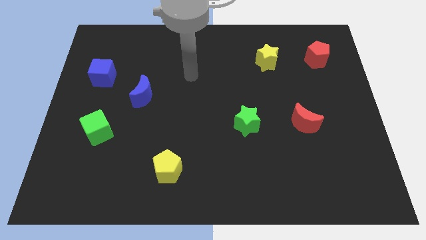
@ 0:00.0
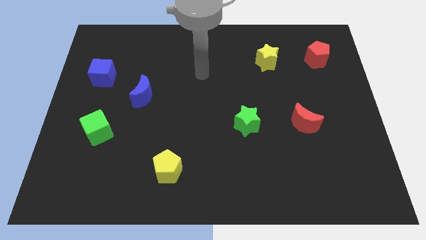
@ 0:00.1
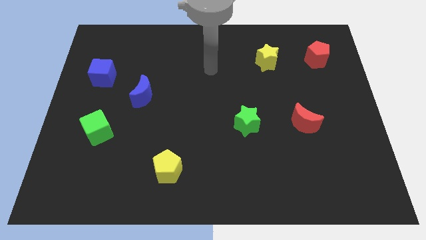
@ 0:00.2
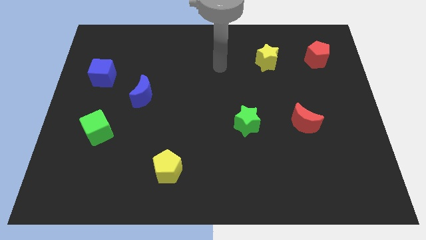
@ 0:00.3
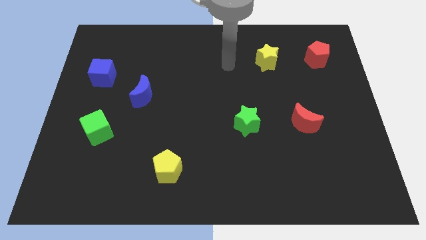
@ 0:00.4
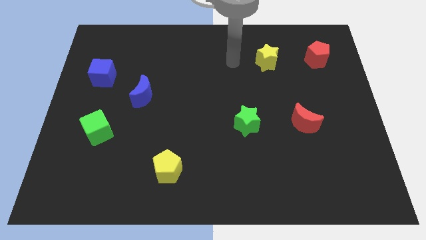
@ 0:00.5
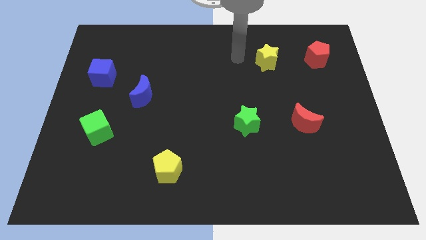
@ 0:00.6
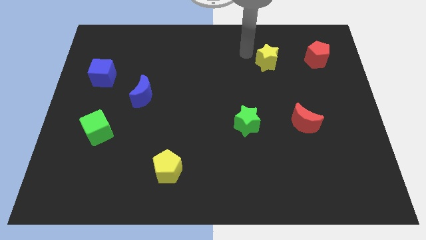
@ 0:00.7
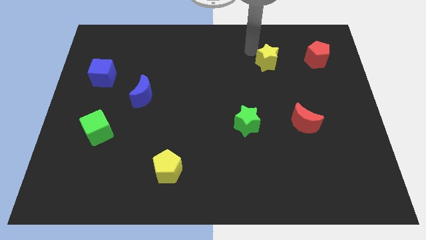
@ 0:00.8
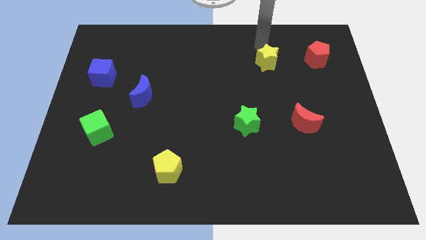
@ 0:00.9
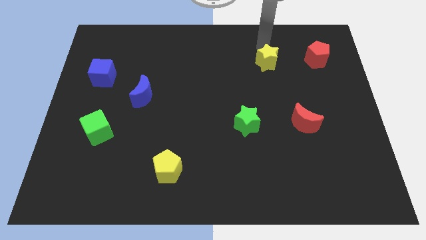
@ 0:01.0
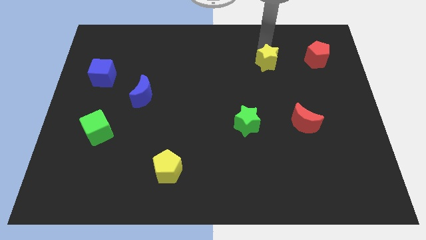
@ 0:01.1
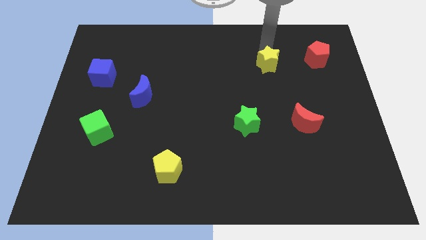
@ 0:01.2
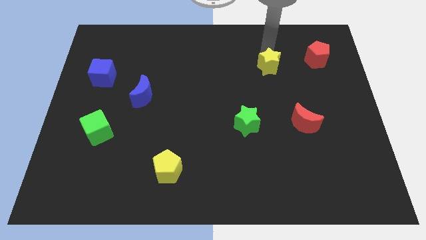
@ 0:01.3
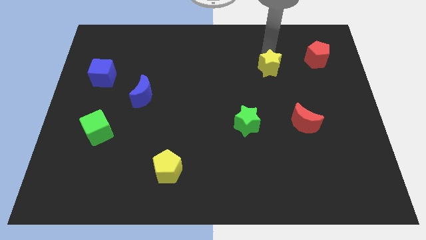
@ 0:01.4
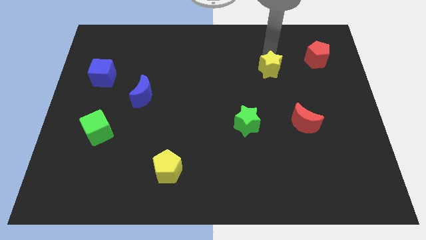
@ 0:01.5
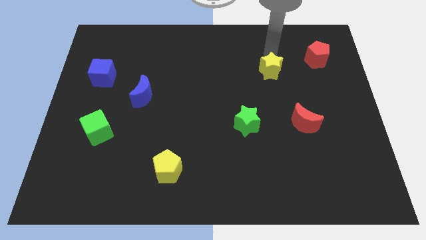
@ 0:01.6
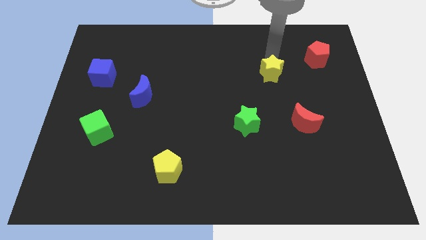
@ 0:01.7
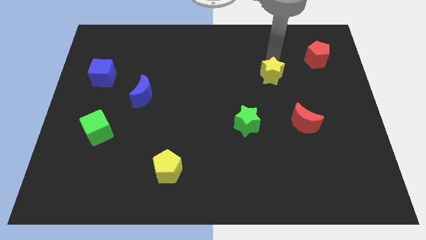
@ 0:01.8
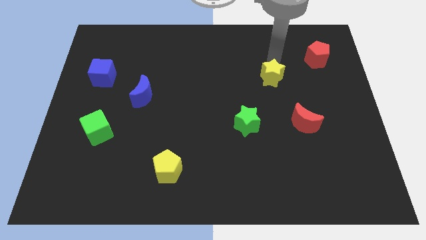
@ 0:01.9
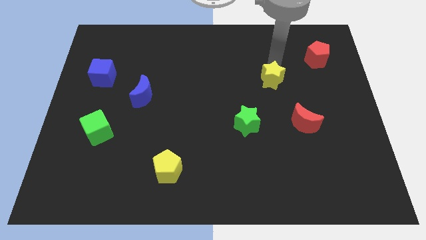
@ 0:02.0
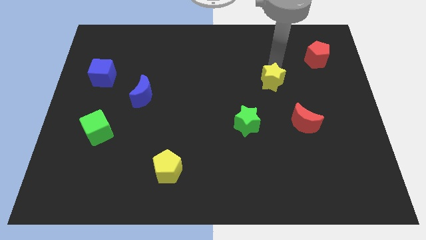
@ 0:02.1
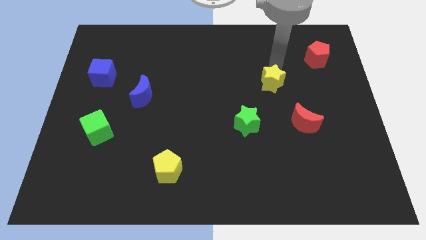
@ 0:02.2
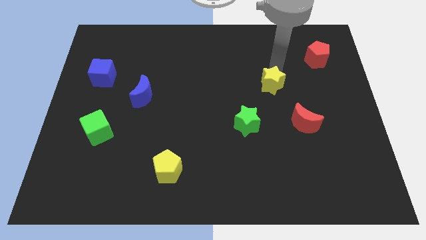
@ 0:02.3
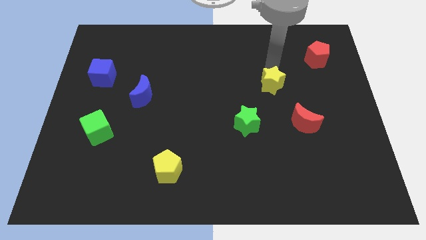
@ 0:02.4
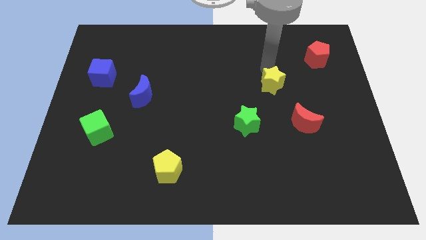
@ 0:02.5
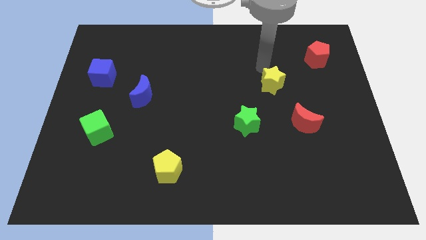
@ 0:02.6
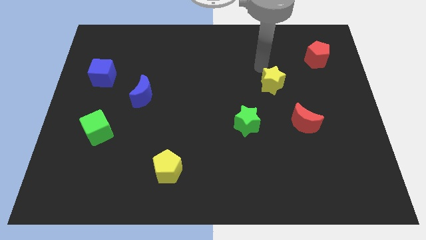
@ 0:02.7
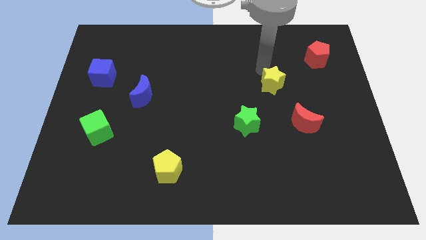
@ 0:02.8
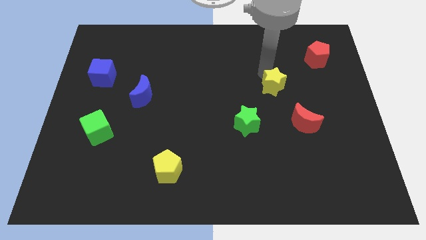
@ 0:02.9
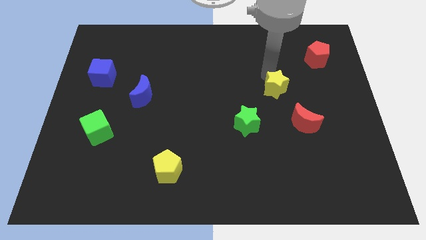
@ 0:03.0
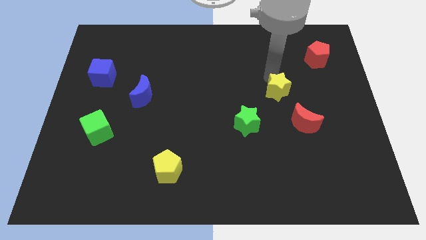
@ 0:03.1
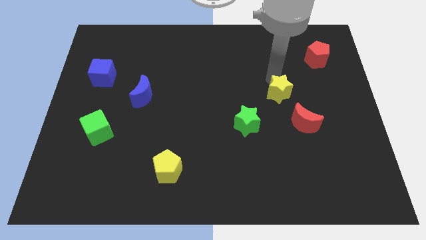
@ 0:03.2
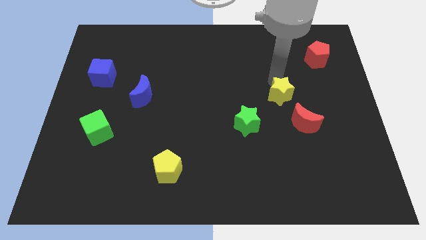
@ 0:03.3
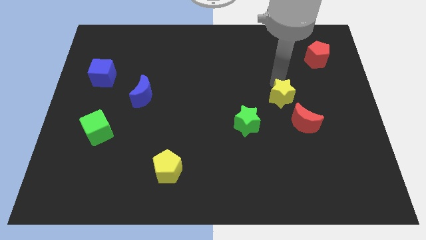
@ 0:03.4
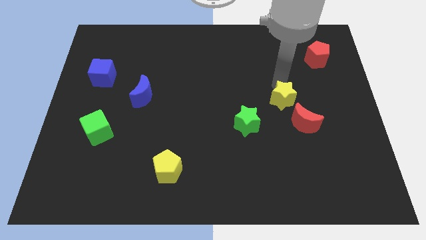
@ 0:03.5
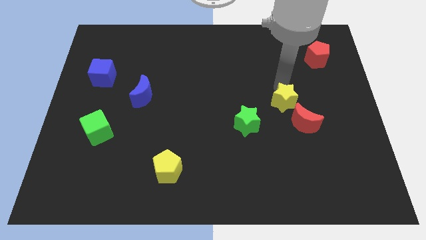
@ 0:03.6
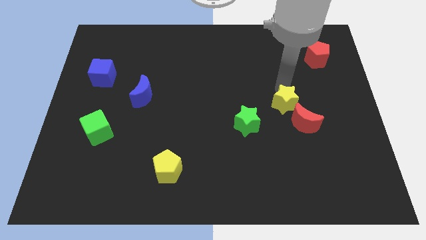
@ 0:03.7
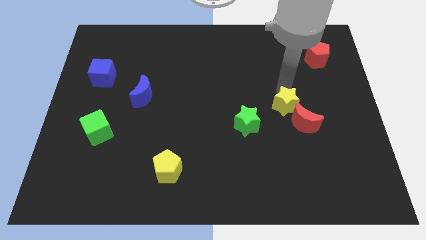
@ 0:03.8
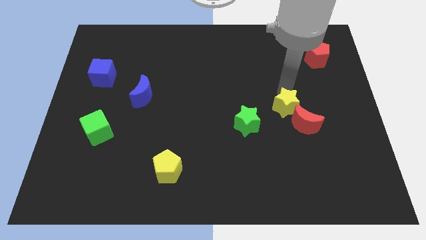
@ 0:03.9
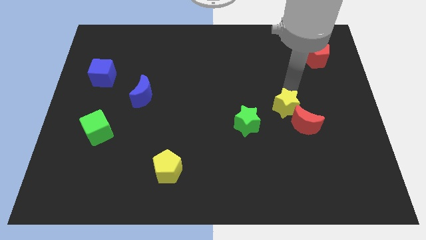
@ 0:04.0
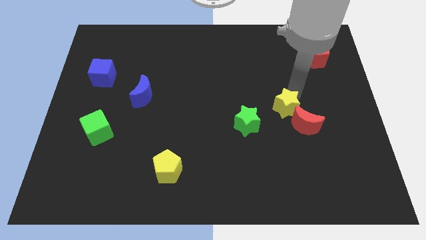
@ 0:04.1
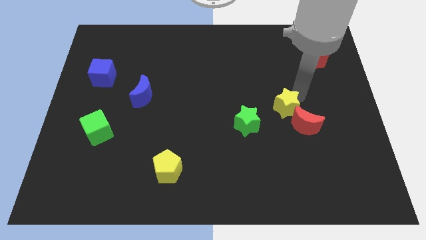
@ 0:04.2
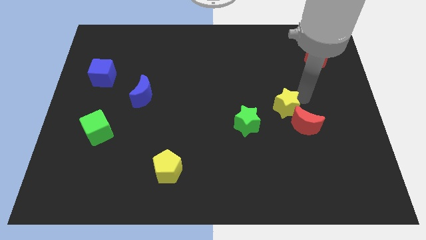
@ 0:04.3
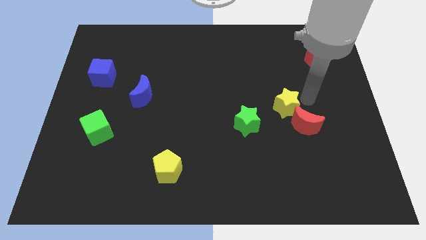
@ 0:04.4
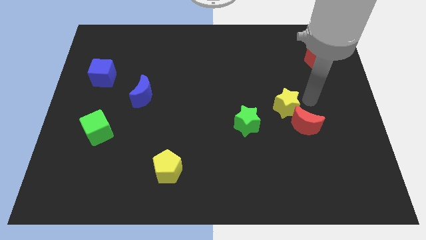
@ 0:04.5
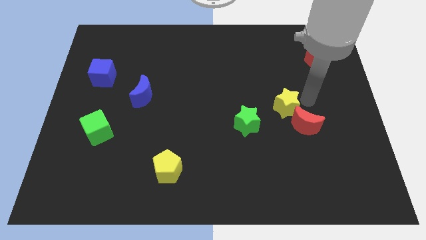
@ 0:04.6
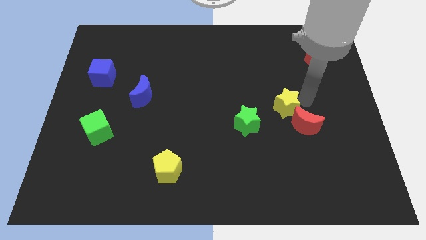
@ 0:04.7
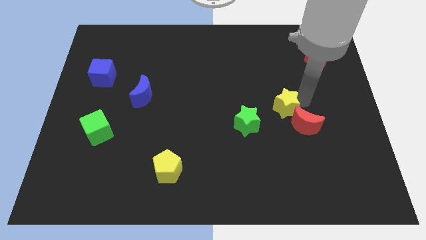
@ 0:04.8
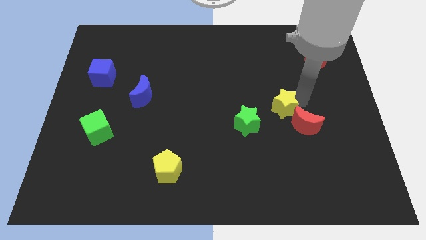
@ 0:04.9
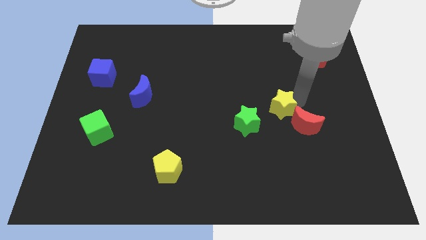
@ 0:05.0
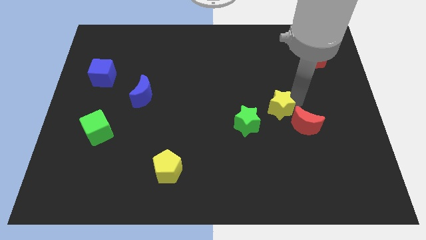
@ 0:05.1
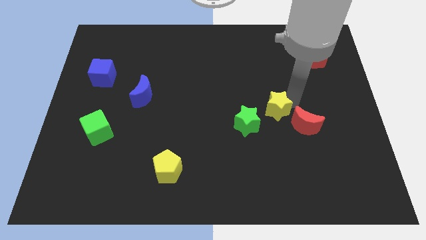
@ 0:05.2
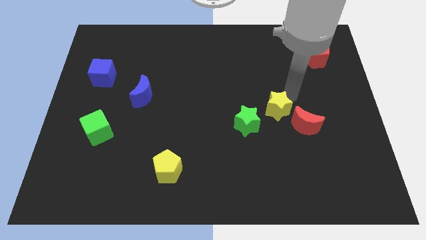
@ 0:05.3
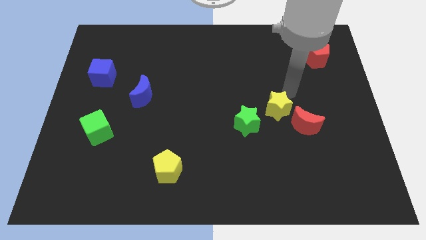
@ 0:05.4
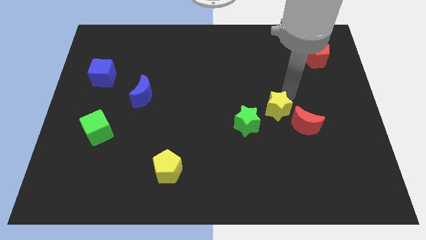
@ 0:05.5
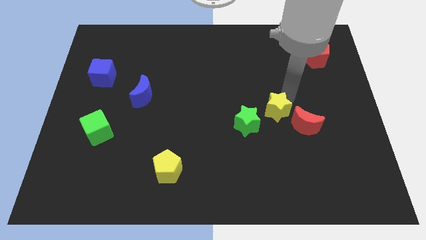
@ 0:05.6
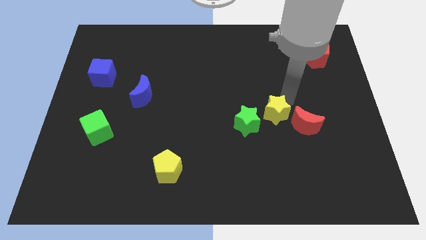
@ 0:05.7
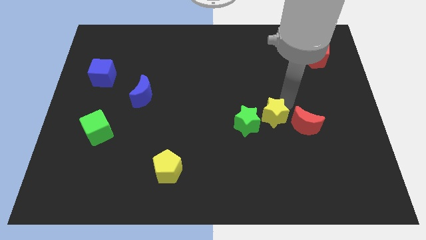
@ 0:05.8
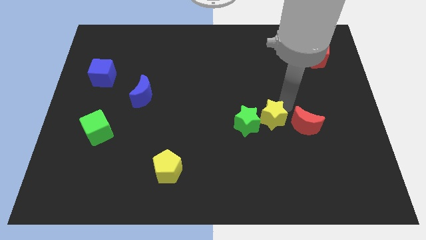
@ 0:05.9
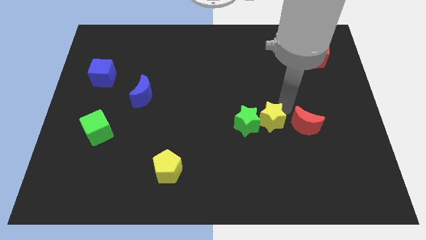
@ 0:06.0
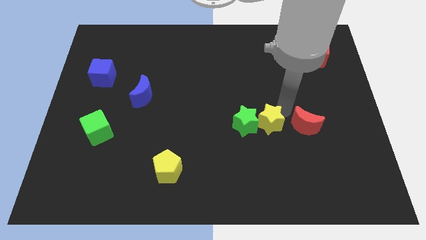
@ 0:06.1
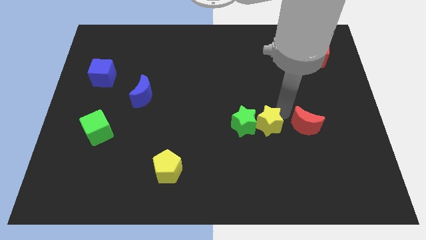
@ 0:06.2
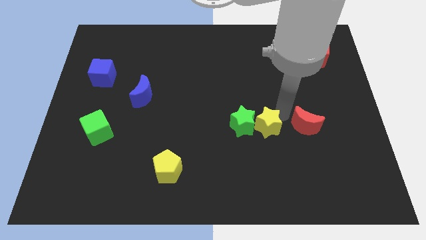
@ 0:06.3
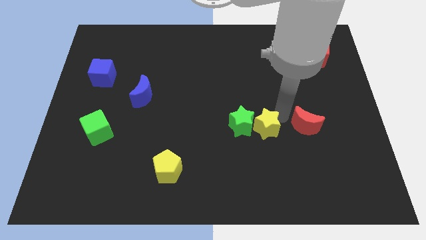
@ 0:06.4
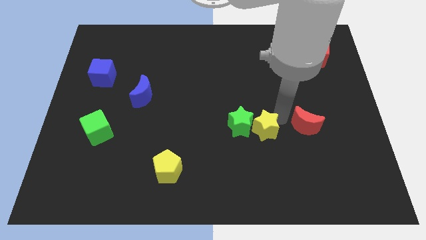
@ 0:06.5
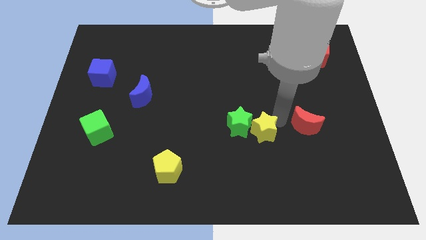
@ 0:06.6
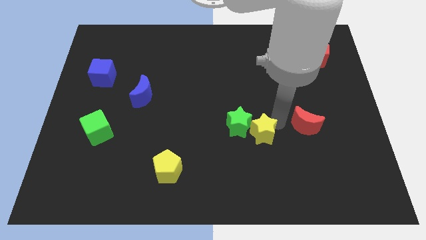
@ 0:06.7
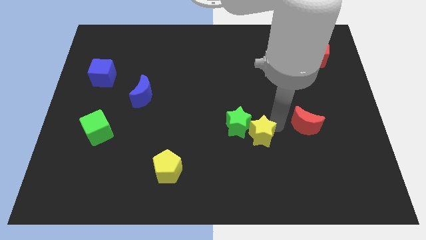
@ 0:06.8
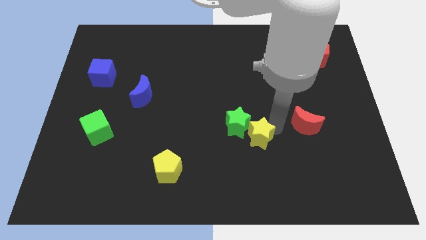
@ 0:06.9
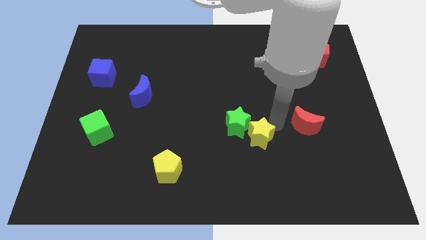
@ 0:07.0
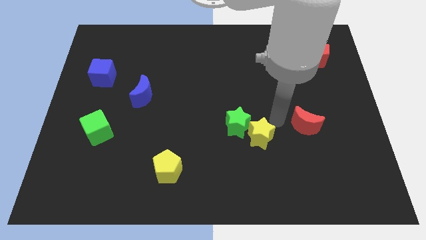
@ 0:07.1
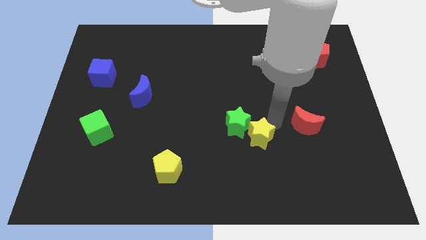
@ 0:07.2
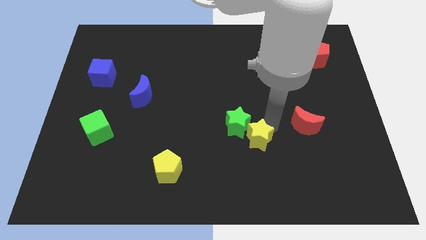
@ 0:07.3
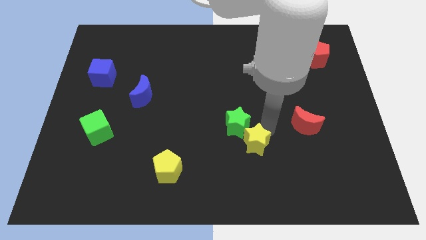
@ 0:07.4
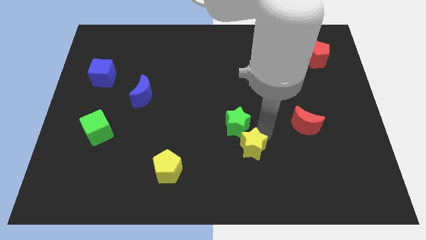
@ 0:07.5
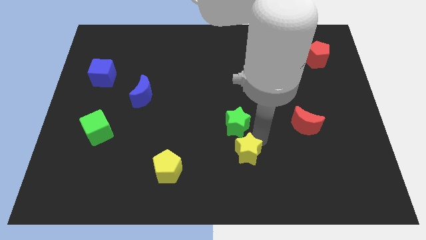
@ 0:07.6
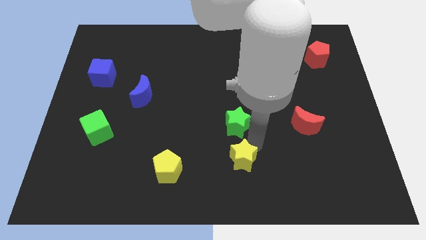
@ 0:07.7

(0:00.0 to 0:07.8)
put the yellow star to the bottom
